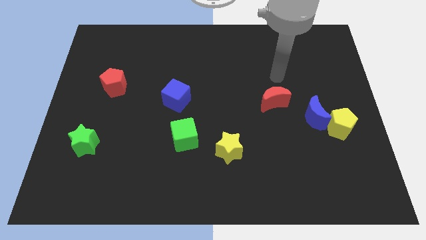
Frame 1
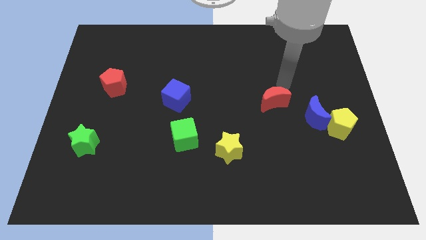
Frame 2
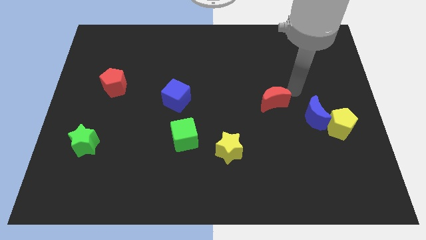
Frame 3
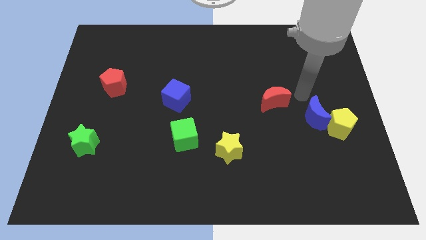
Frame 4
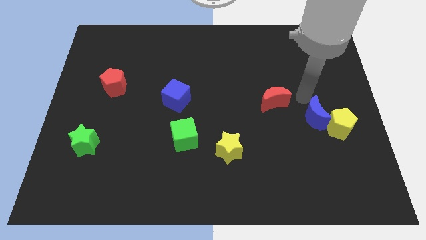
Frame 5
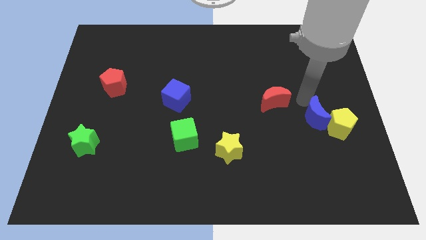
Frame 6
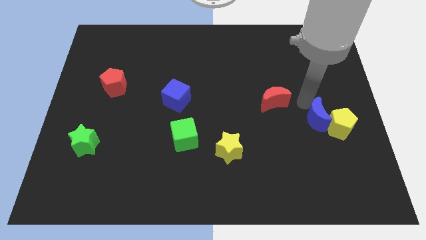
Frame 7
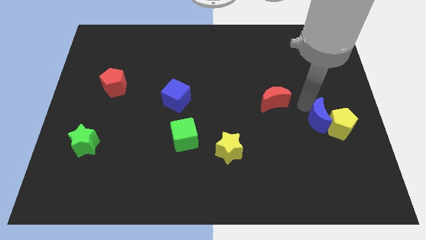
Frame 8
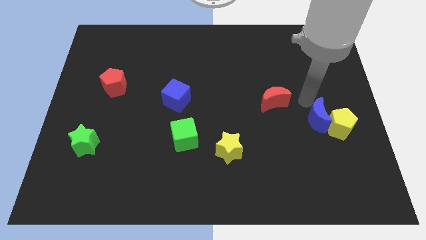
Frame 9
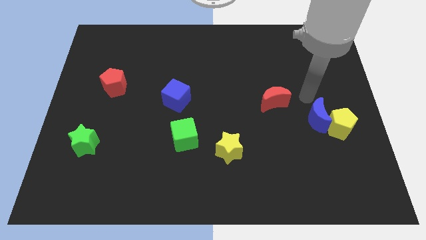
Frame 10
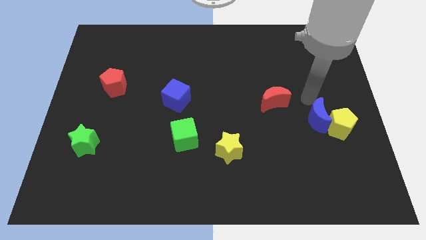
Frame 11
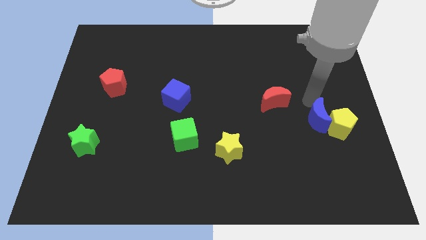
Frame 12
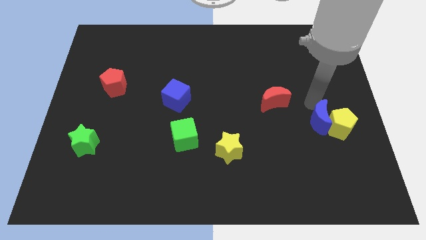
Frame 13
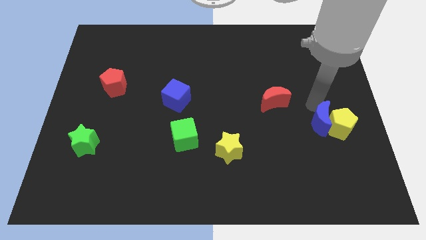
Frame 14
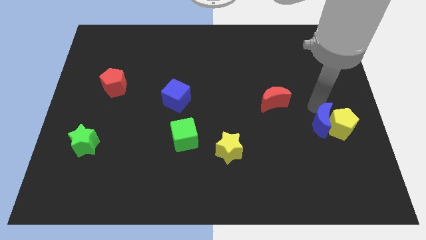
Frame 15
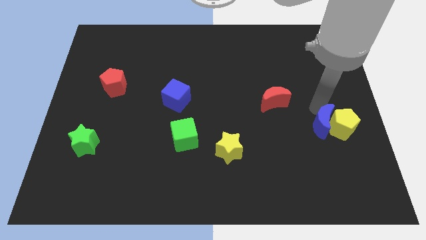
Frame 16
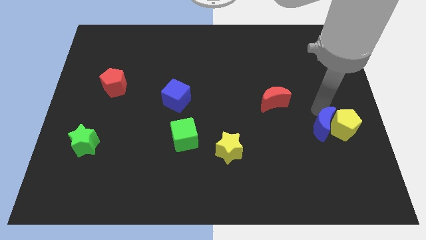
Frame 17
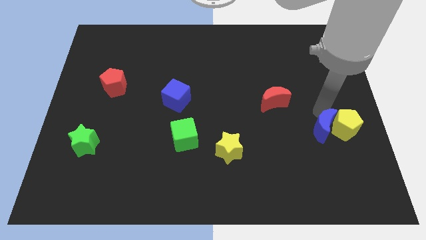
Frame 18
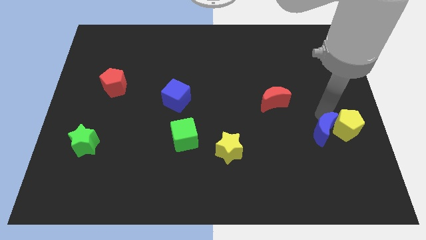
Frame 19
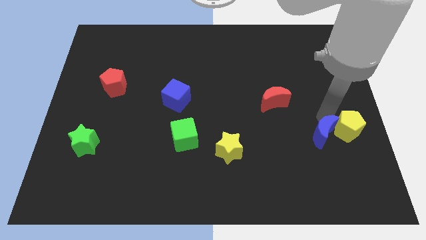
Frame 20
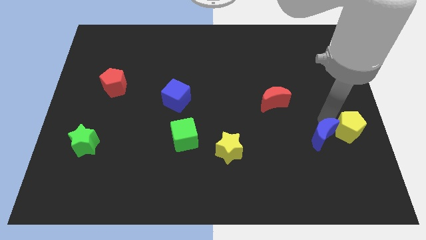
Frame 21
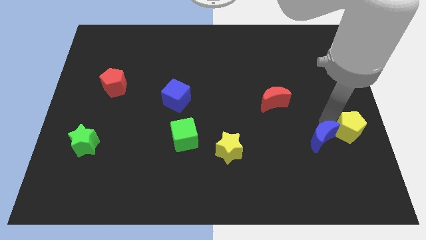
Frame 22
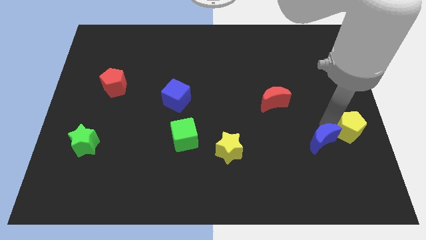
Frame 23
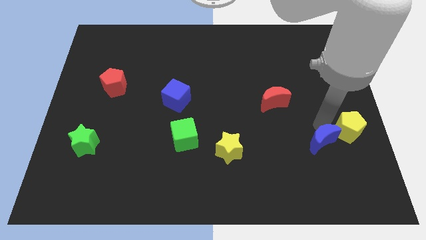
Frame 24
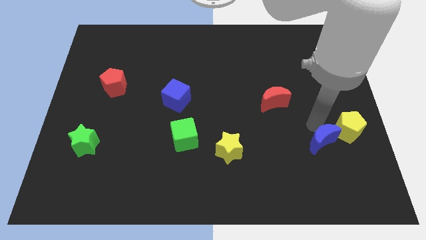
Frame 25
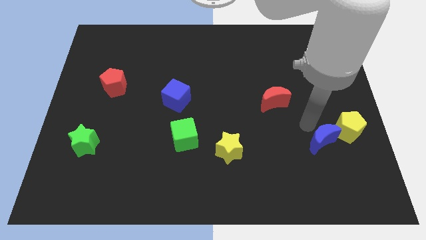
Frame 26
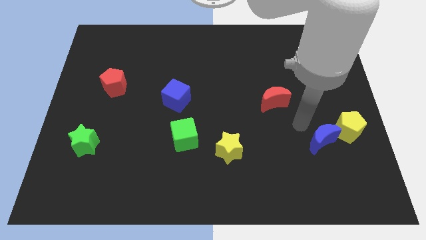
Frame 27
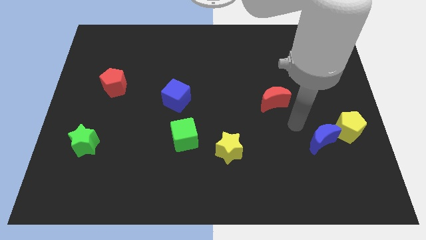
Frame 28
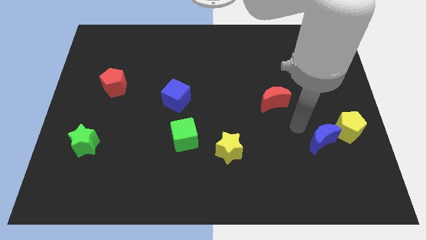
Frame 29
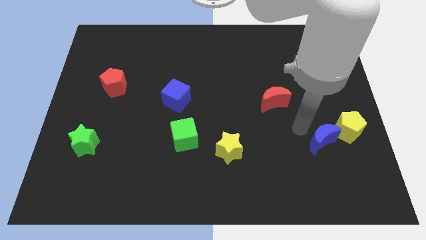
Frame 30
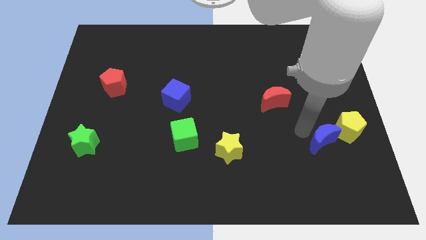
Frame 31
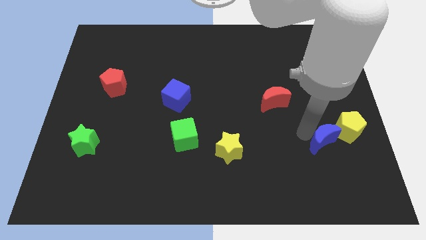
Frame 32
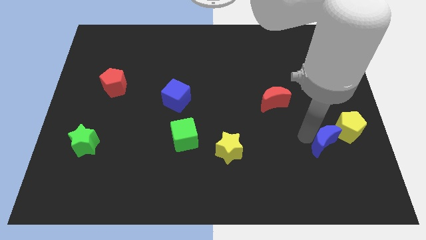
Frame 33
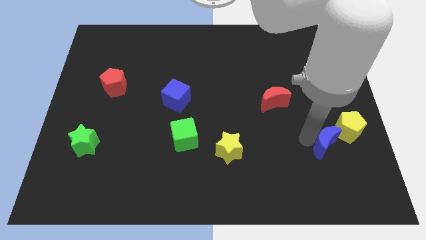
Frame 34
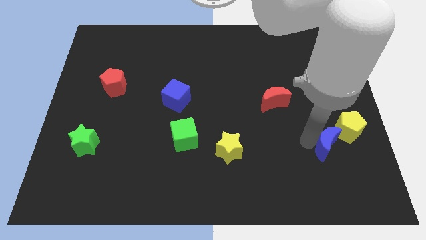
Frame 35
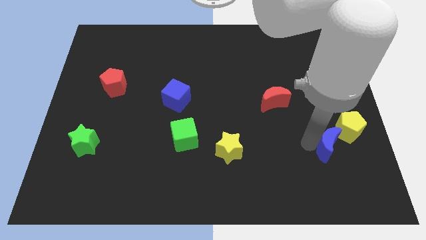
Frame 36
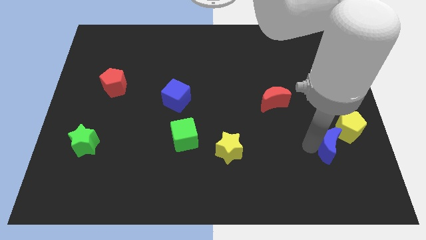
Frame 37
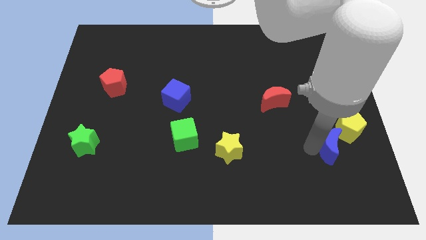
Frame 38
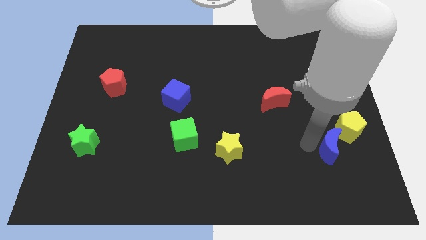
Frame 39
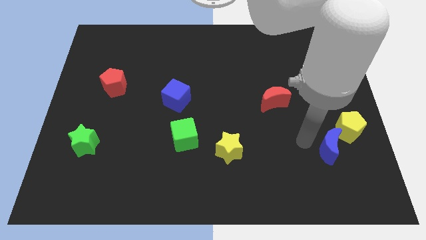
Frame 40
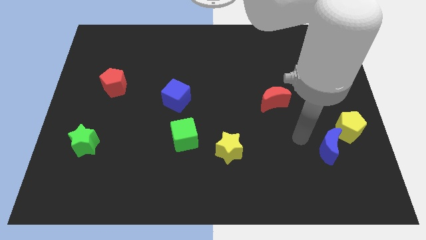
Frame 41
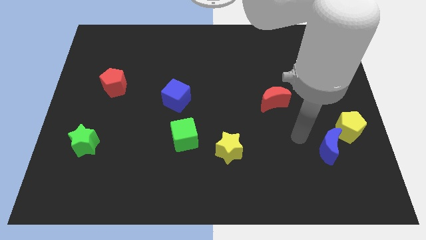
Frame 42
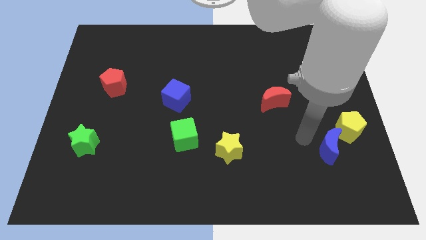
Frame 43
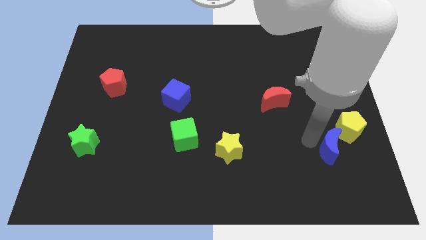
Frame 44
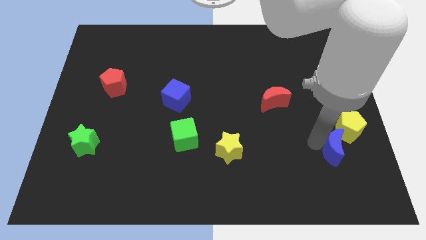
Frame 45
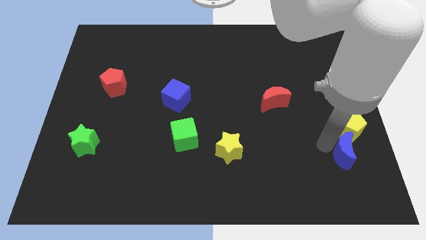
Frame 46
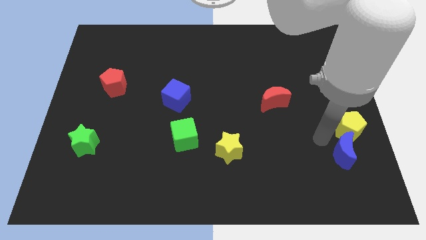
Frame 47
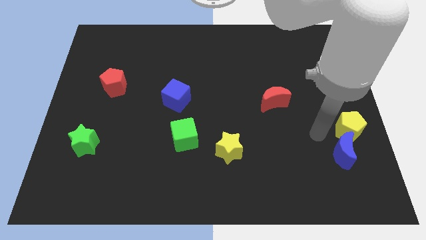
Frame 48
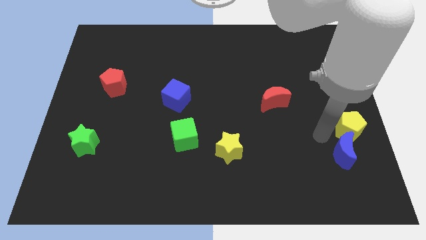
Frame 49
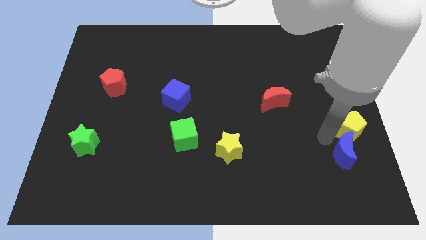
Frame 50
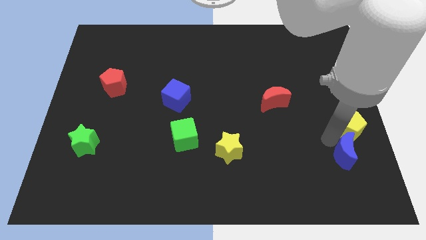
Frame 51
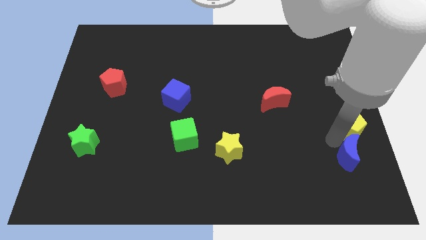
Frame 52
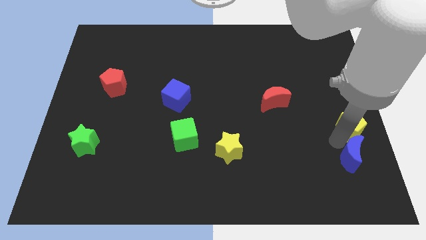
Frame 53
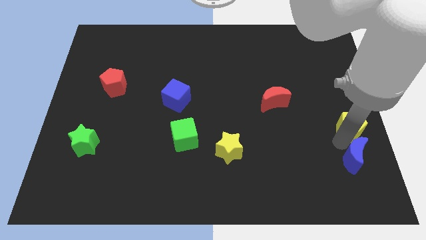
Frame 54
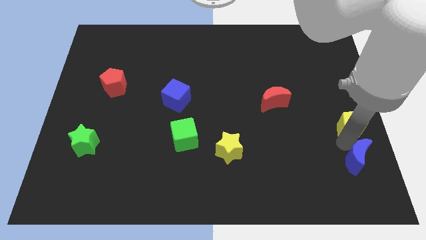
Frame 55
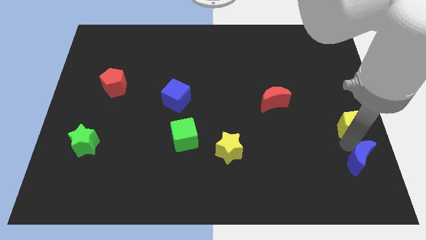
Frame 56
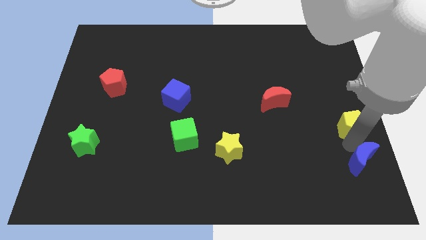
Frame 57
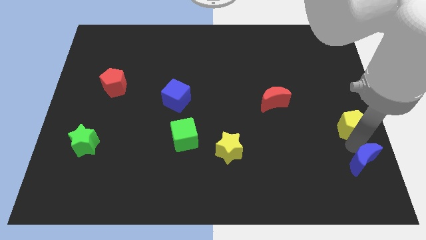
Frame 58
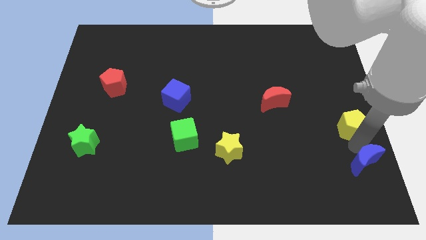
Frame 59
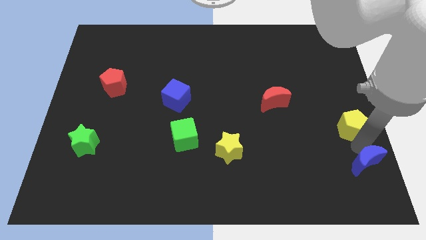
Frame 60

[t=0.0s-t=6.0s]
push the blue moon to the lower right corner

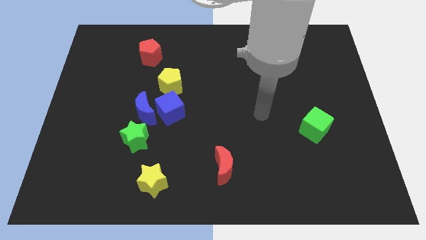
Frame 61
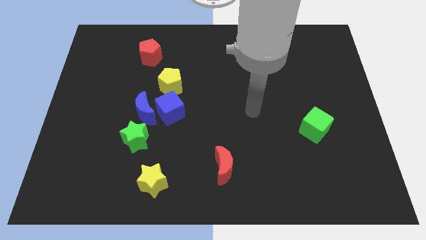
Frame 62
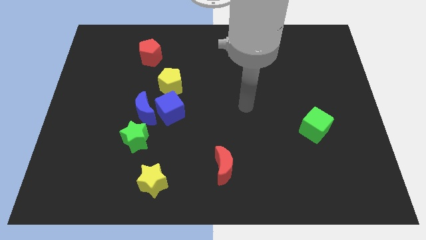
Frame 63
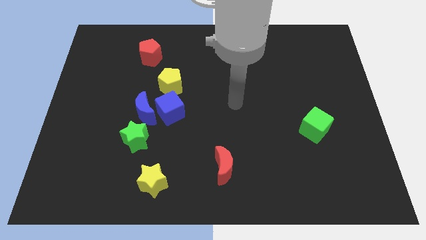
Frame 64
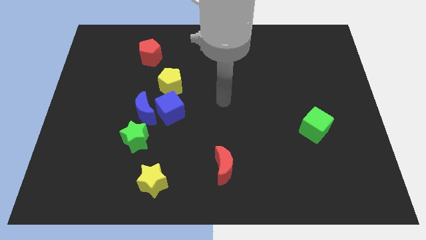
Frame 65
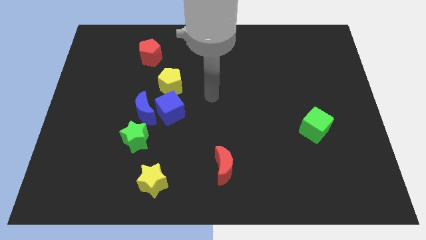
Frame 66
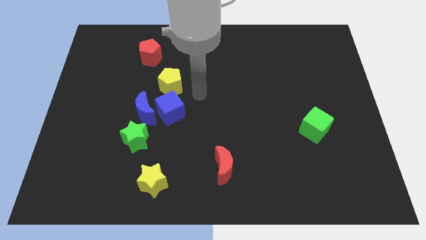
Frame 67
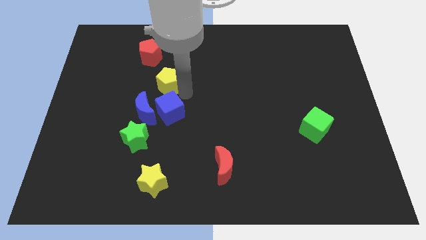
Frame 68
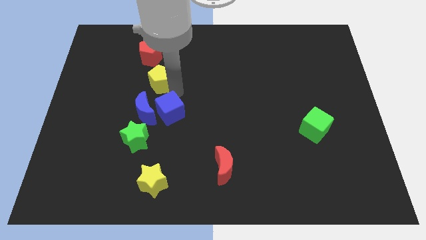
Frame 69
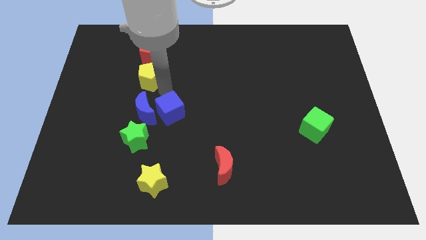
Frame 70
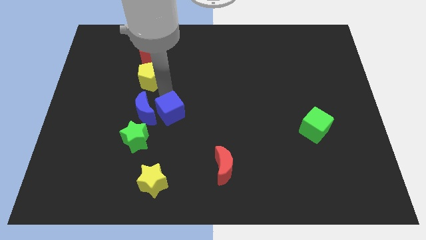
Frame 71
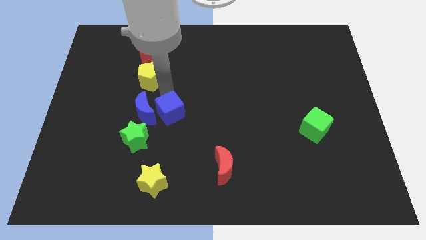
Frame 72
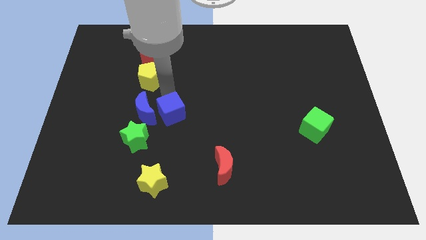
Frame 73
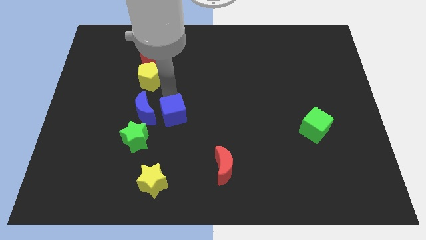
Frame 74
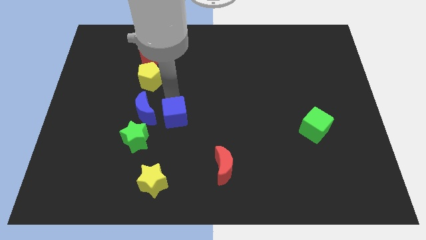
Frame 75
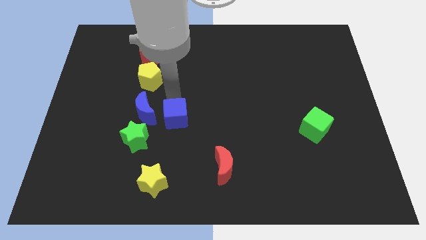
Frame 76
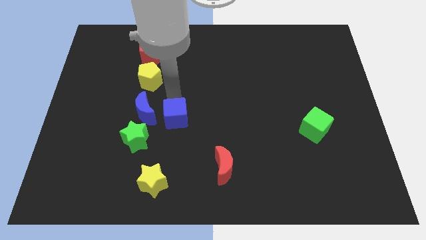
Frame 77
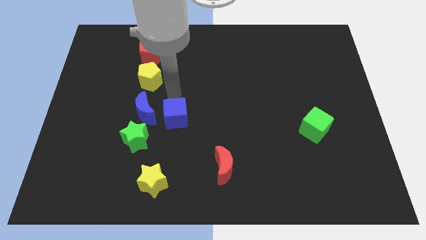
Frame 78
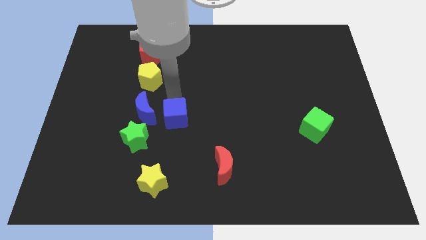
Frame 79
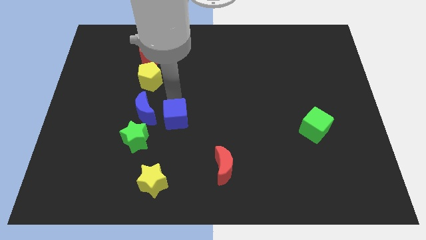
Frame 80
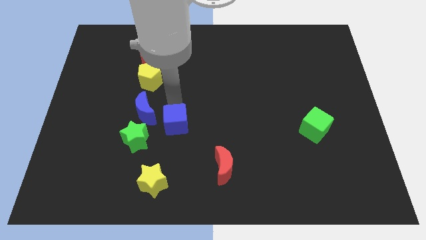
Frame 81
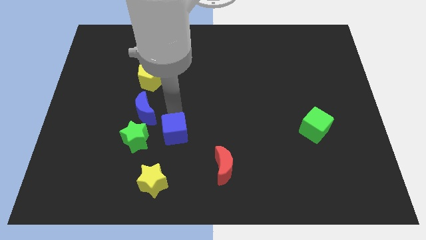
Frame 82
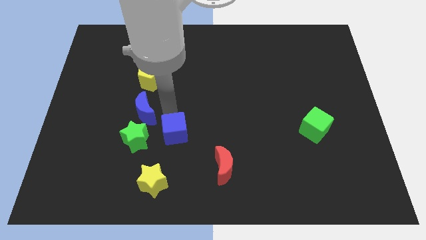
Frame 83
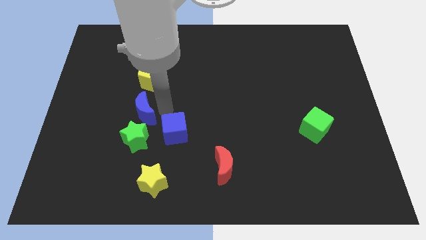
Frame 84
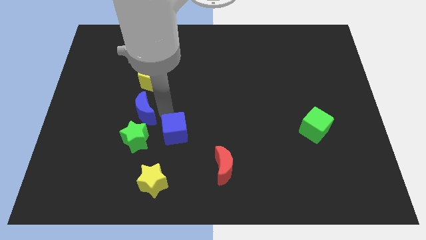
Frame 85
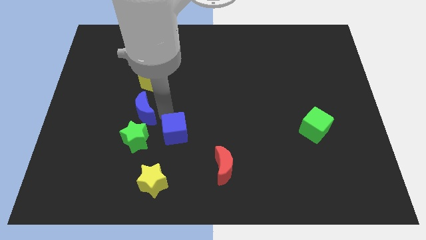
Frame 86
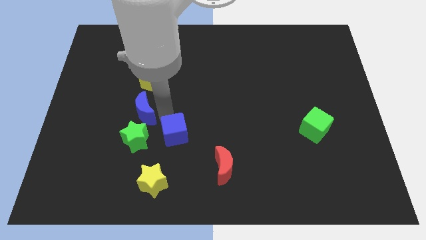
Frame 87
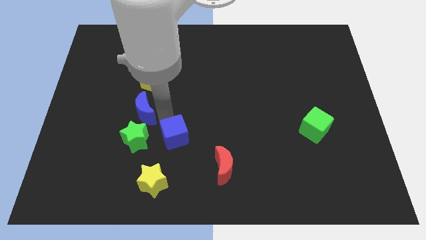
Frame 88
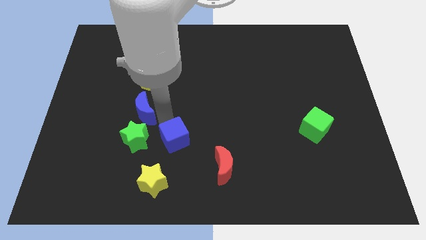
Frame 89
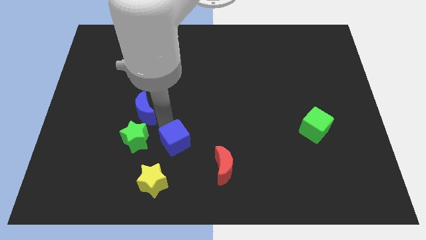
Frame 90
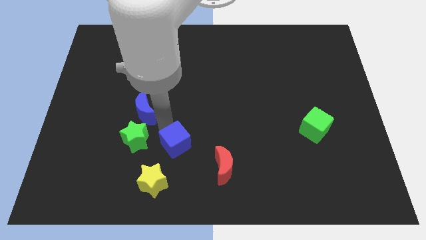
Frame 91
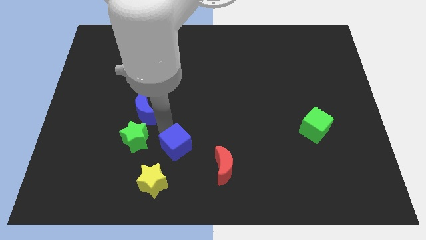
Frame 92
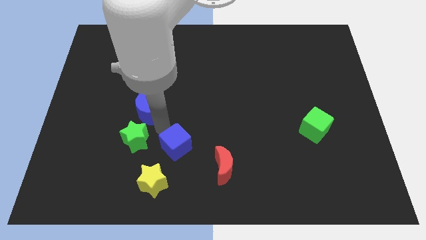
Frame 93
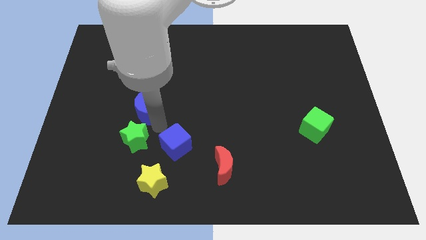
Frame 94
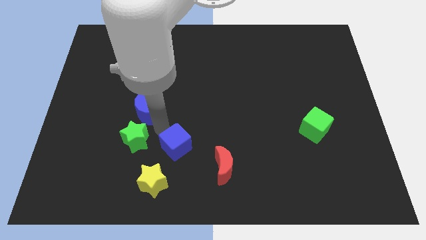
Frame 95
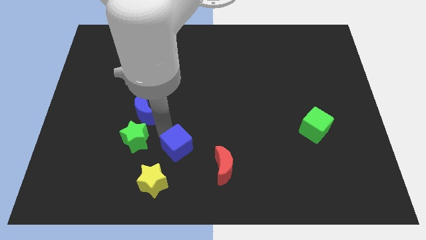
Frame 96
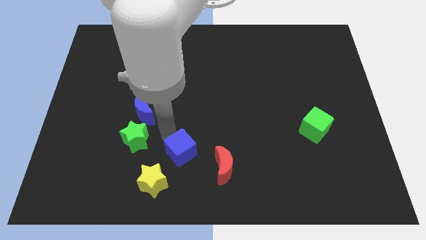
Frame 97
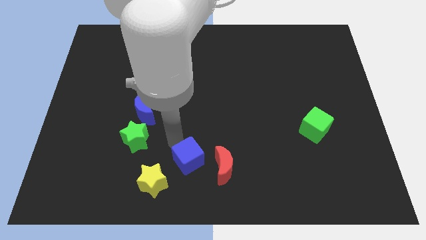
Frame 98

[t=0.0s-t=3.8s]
slide the blue cube to the bottom
